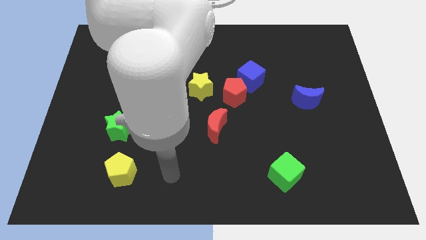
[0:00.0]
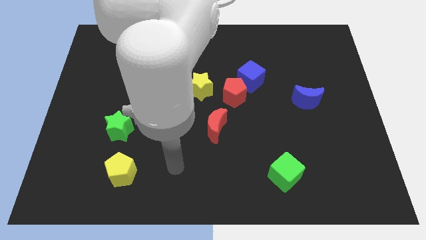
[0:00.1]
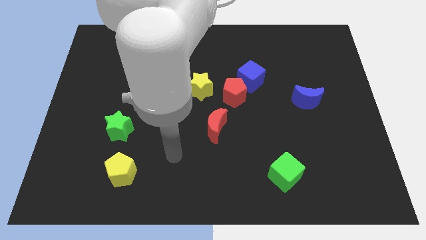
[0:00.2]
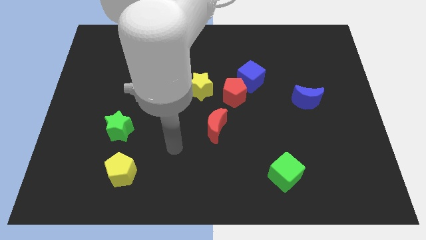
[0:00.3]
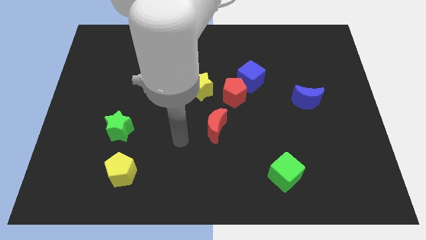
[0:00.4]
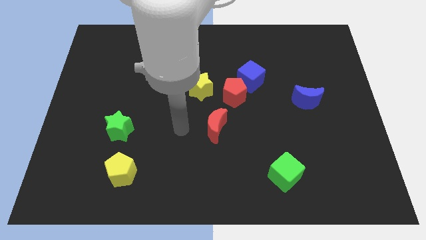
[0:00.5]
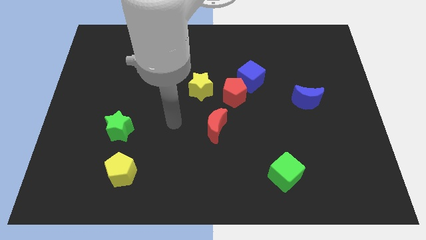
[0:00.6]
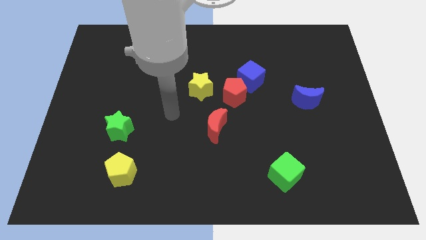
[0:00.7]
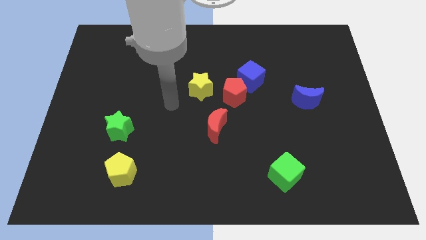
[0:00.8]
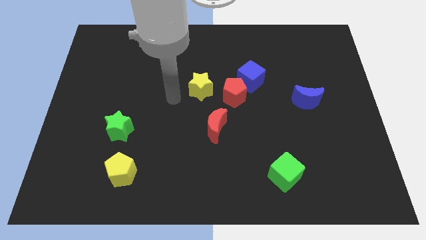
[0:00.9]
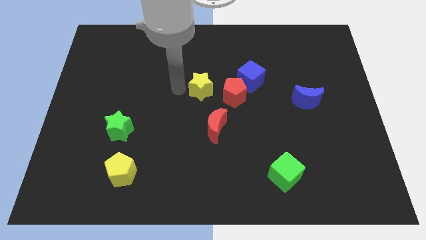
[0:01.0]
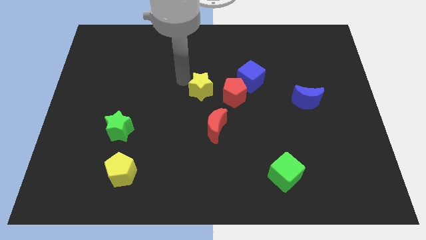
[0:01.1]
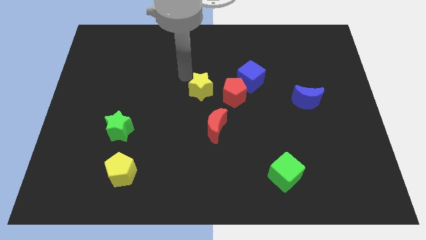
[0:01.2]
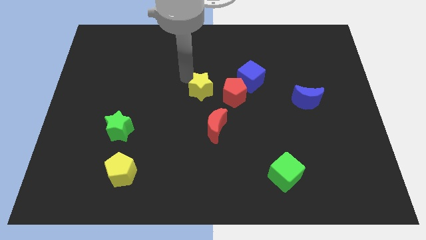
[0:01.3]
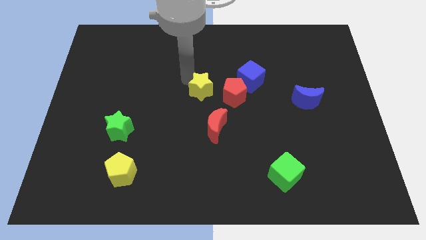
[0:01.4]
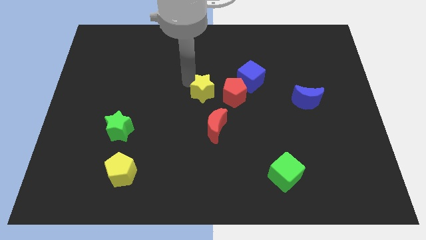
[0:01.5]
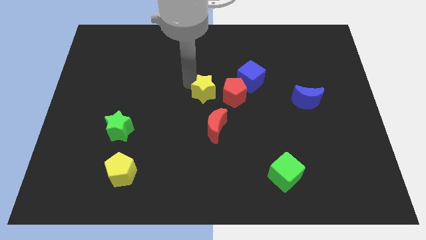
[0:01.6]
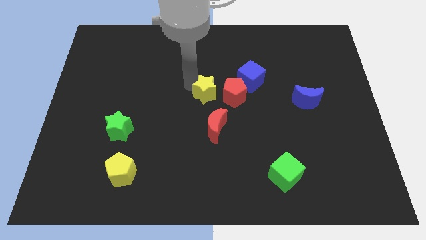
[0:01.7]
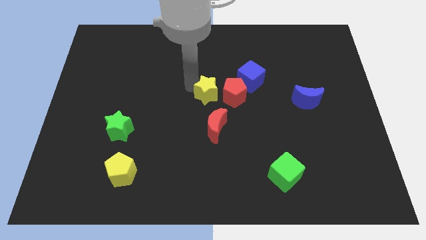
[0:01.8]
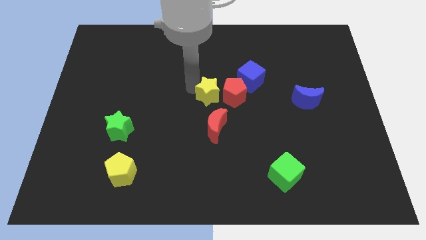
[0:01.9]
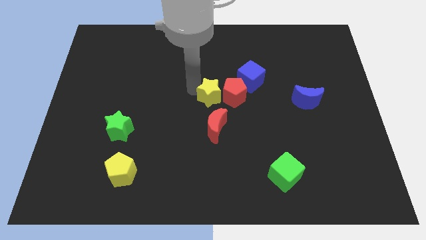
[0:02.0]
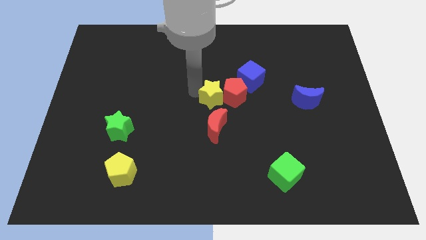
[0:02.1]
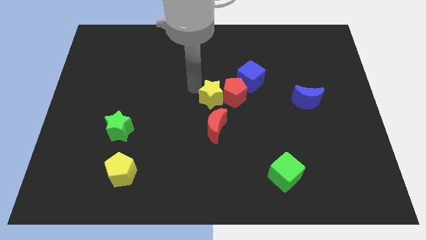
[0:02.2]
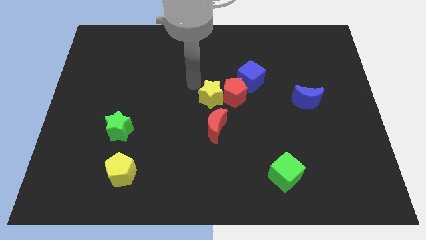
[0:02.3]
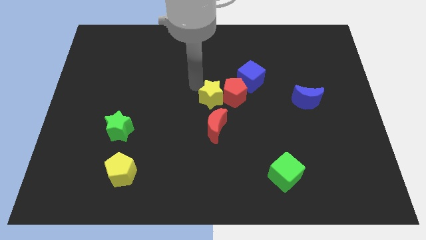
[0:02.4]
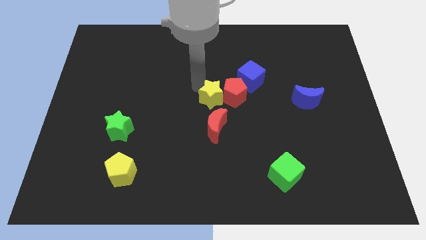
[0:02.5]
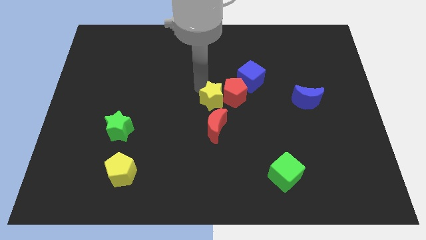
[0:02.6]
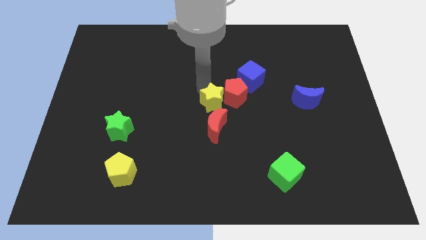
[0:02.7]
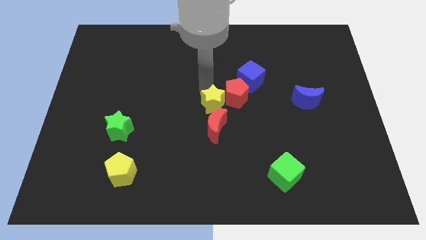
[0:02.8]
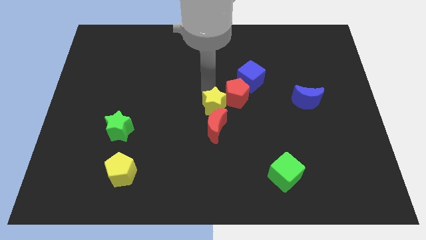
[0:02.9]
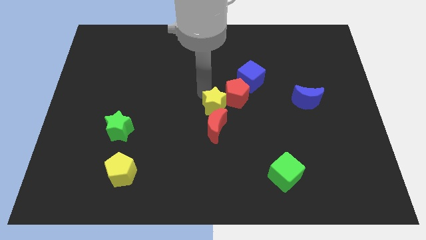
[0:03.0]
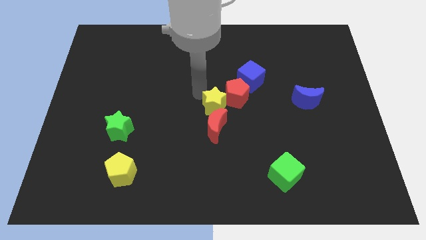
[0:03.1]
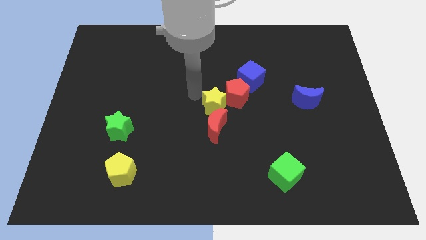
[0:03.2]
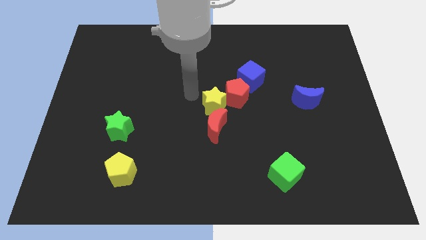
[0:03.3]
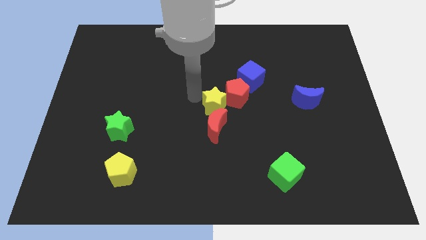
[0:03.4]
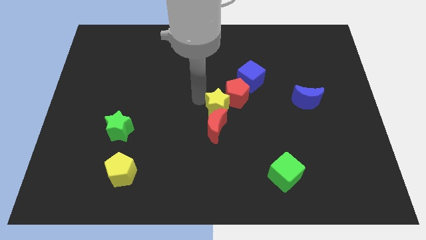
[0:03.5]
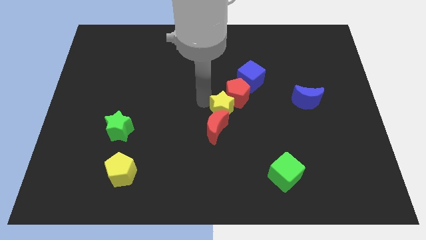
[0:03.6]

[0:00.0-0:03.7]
slightly slide the yellow star down and right

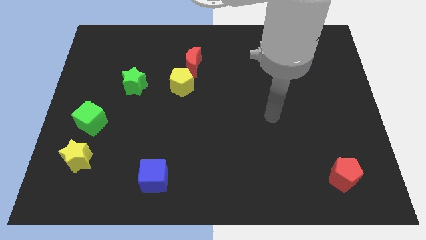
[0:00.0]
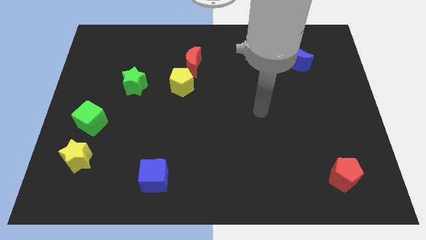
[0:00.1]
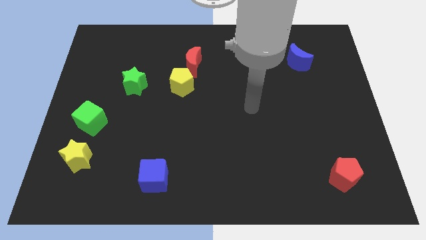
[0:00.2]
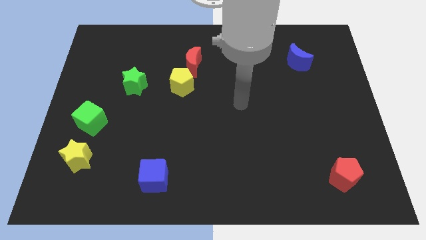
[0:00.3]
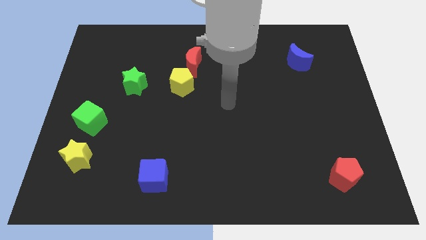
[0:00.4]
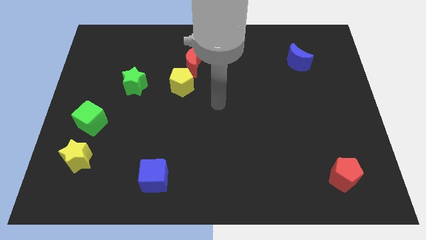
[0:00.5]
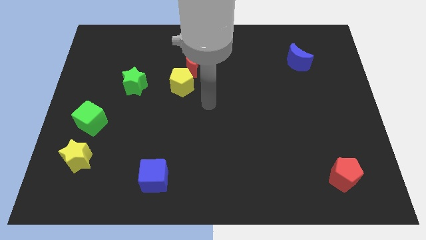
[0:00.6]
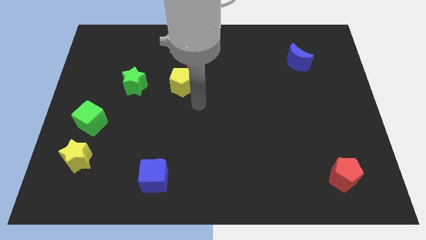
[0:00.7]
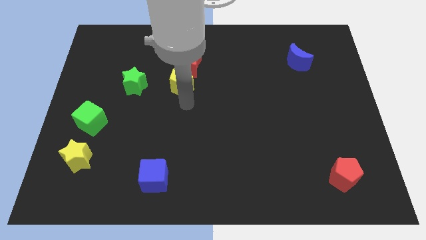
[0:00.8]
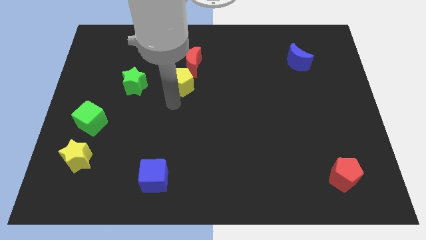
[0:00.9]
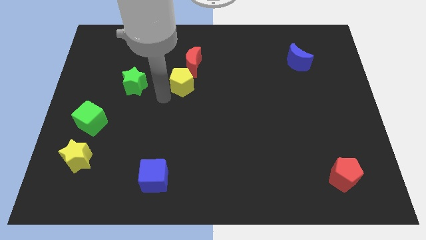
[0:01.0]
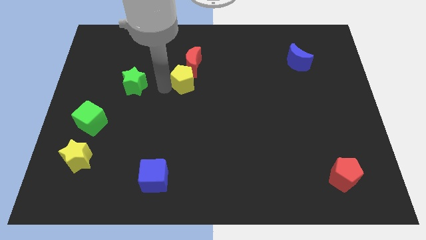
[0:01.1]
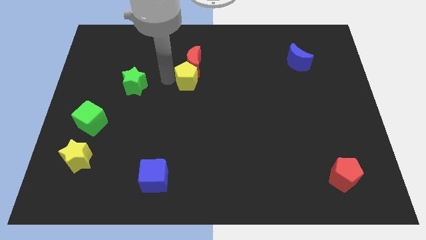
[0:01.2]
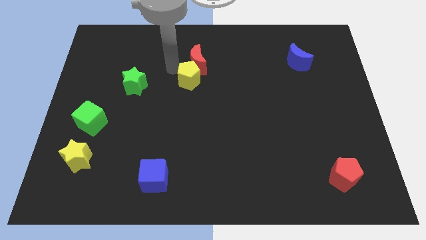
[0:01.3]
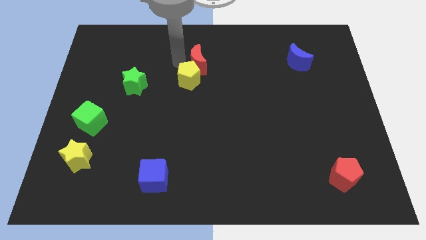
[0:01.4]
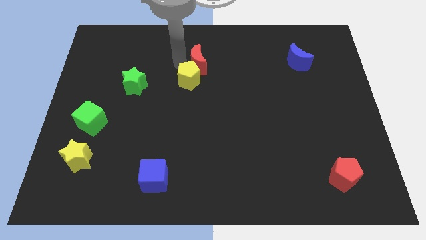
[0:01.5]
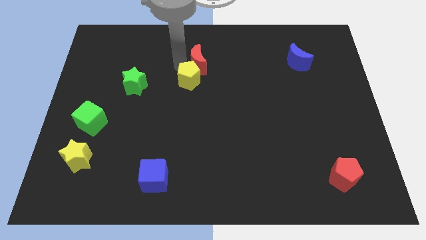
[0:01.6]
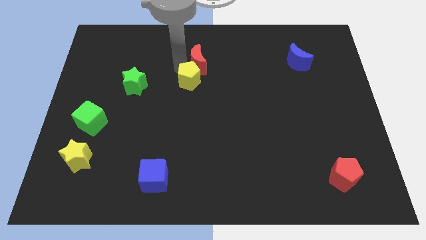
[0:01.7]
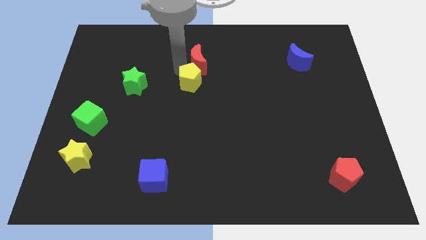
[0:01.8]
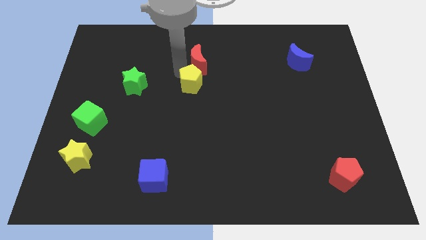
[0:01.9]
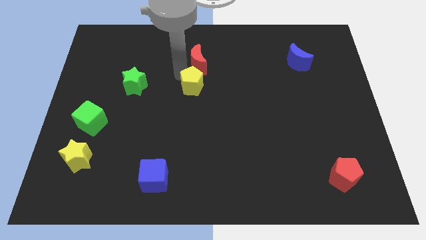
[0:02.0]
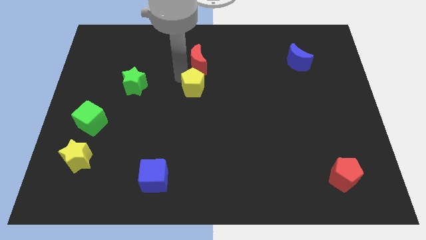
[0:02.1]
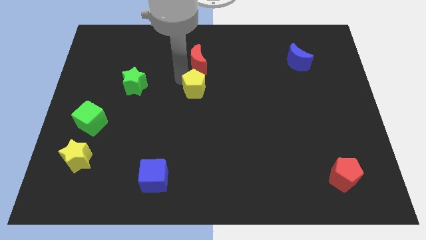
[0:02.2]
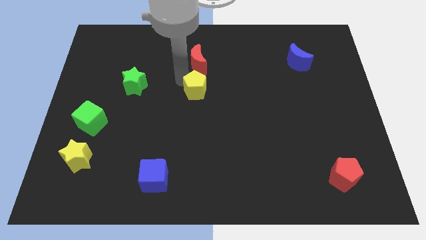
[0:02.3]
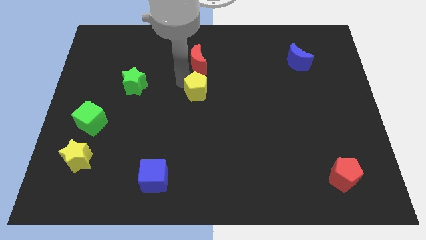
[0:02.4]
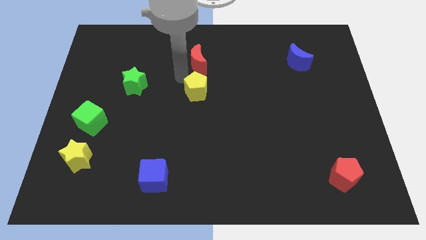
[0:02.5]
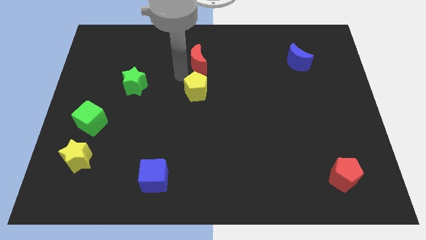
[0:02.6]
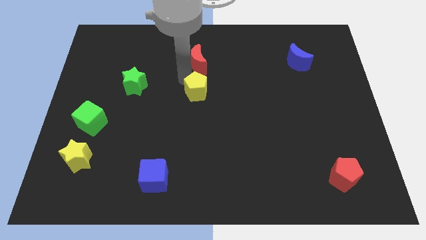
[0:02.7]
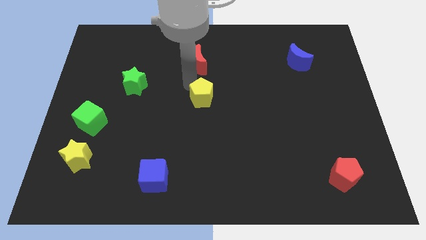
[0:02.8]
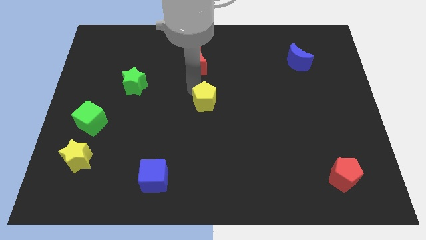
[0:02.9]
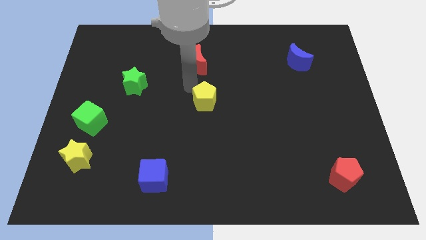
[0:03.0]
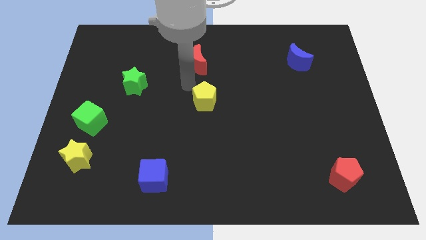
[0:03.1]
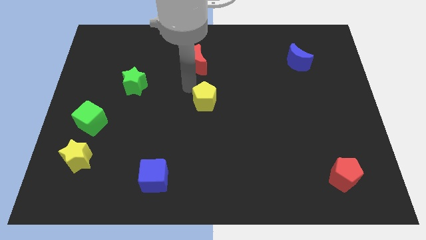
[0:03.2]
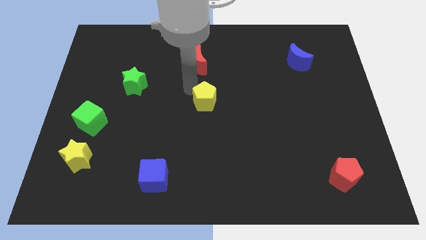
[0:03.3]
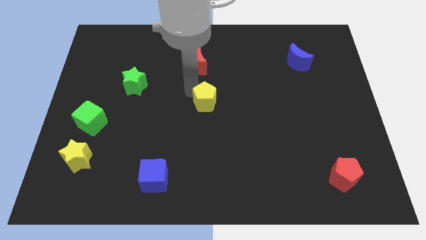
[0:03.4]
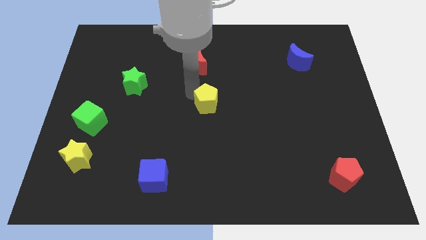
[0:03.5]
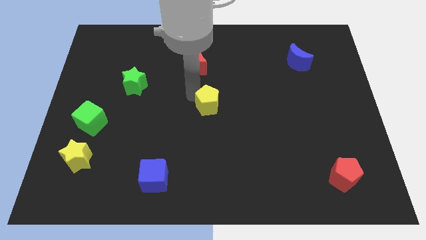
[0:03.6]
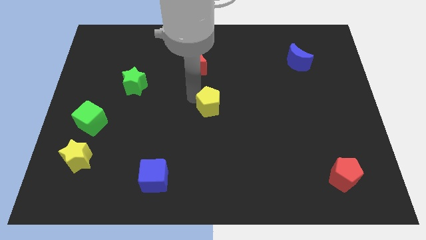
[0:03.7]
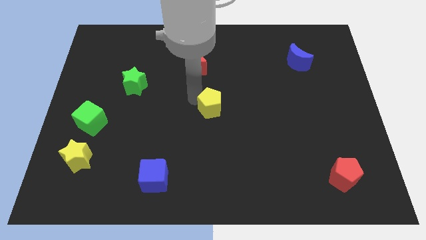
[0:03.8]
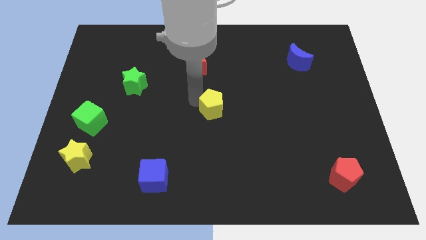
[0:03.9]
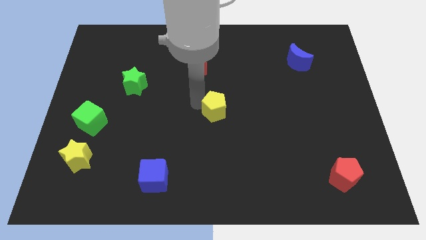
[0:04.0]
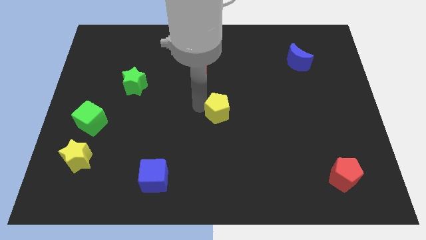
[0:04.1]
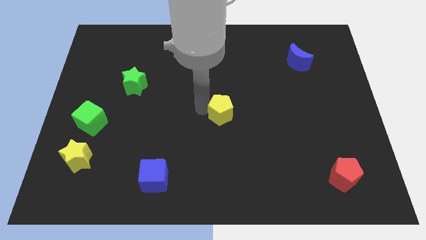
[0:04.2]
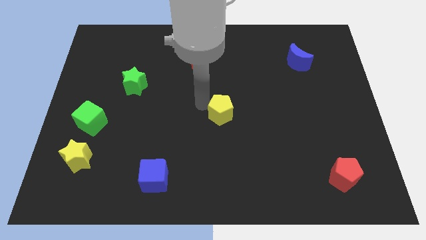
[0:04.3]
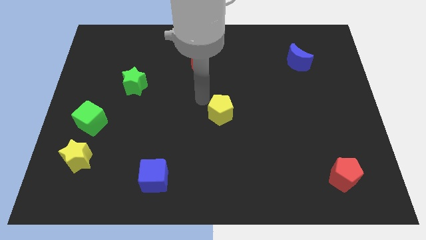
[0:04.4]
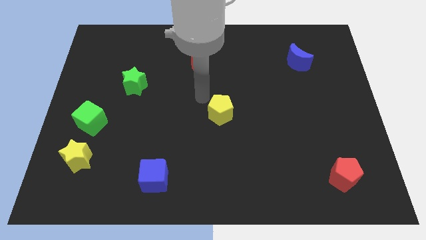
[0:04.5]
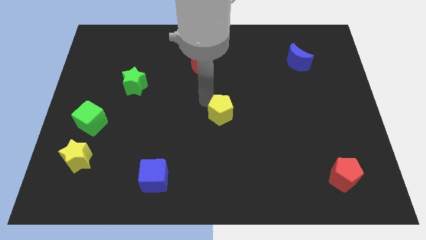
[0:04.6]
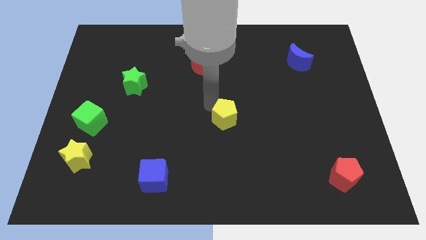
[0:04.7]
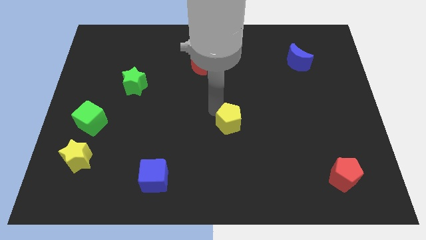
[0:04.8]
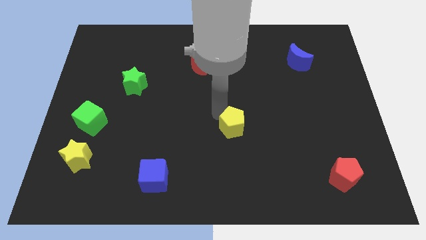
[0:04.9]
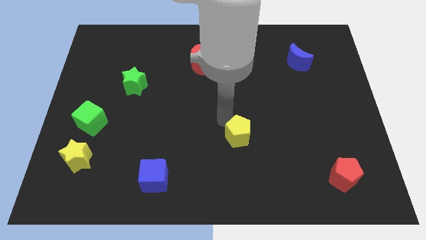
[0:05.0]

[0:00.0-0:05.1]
move the yellow pentagon diagonally downwards and right
